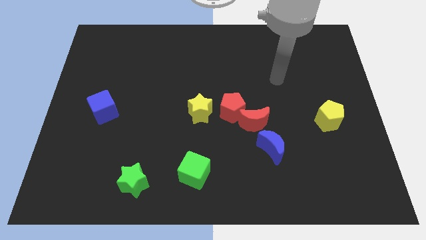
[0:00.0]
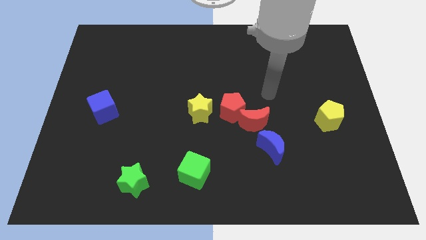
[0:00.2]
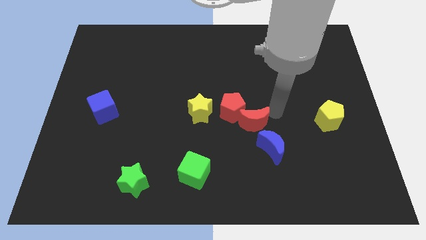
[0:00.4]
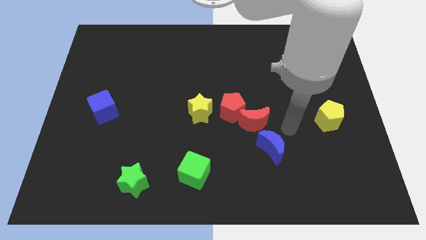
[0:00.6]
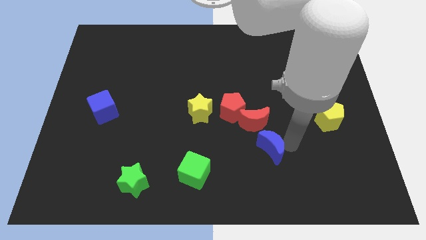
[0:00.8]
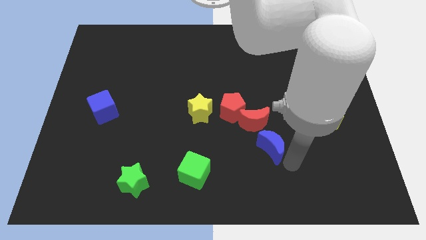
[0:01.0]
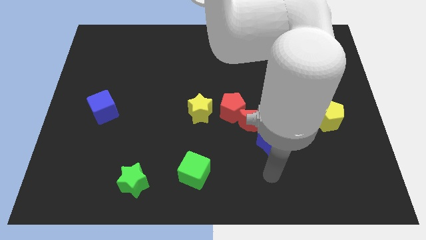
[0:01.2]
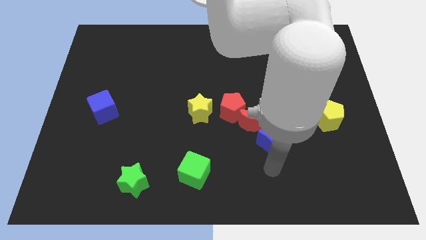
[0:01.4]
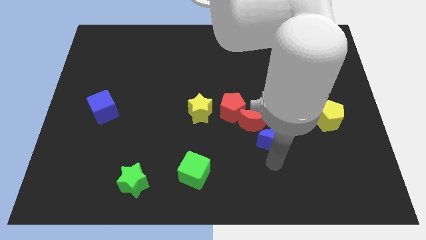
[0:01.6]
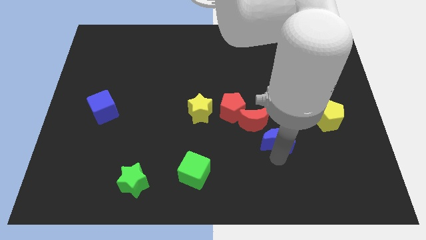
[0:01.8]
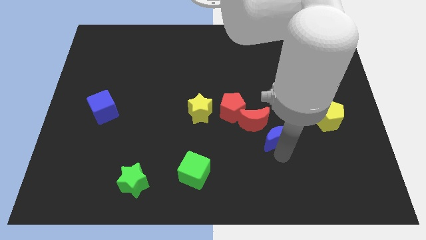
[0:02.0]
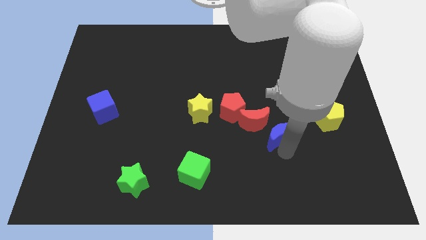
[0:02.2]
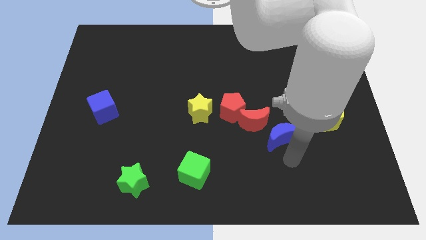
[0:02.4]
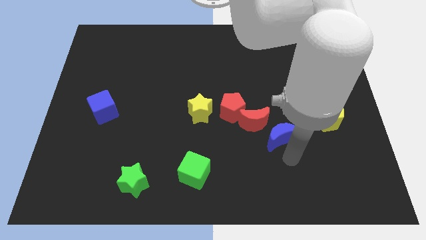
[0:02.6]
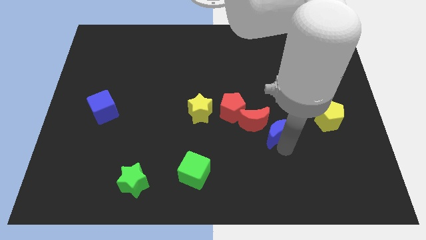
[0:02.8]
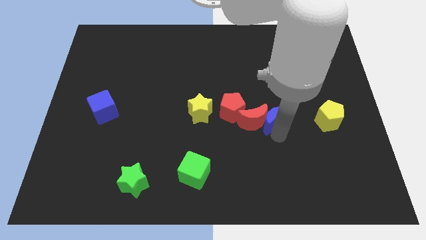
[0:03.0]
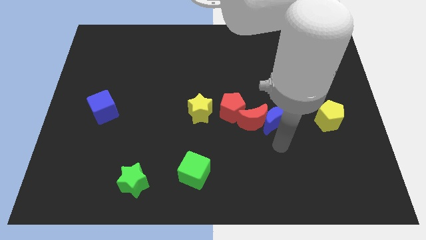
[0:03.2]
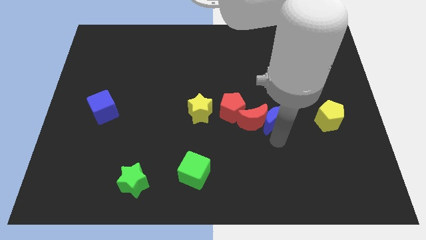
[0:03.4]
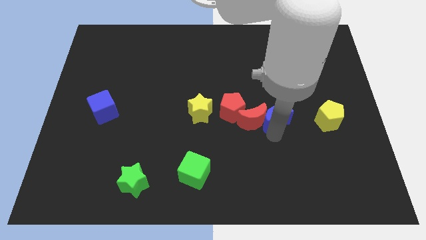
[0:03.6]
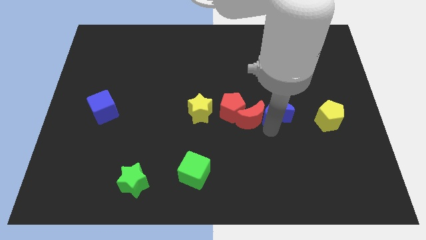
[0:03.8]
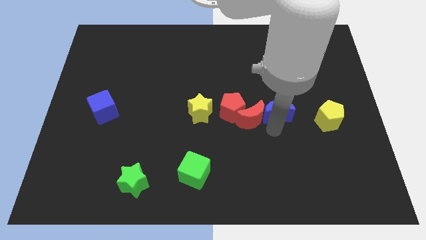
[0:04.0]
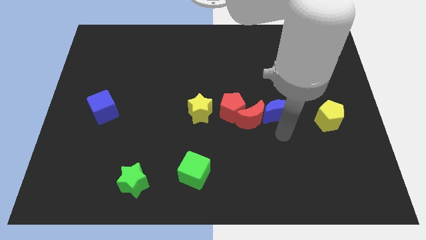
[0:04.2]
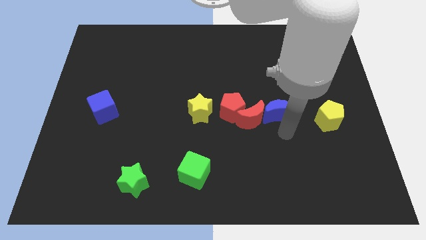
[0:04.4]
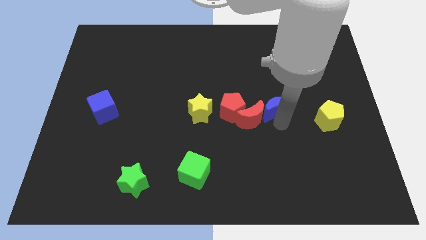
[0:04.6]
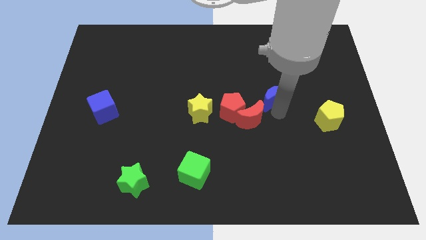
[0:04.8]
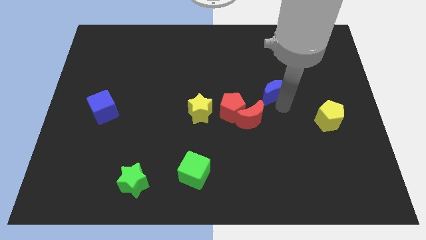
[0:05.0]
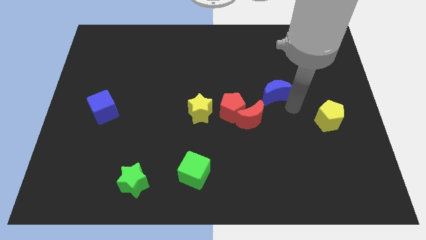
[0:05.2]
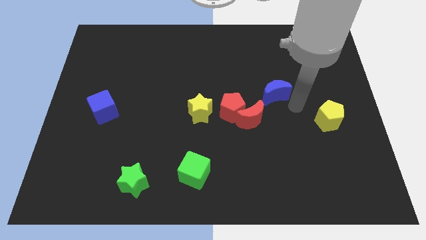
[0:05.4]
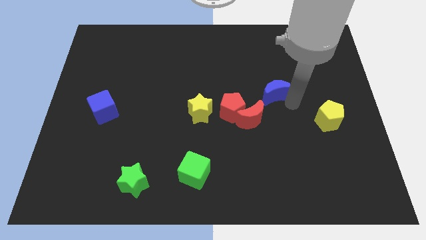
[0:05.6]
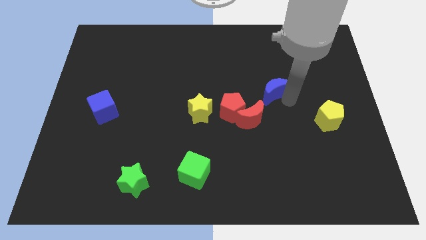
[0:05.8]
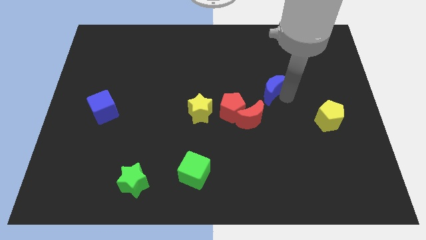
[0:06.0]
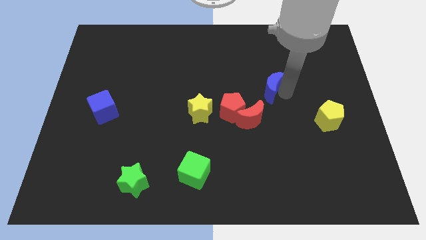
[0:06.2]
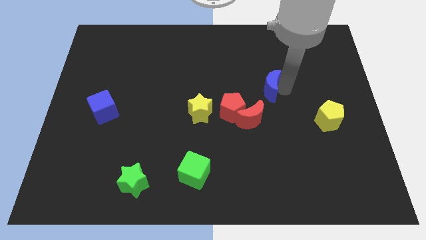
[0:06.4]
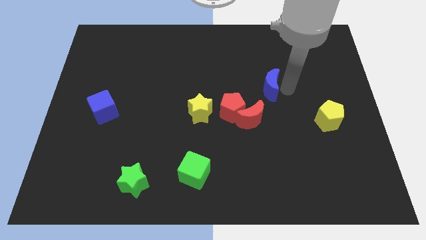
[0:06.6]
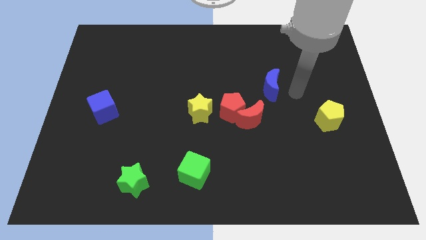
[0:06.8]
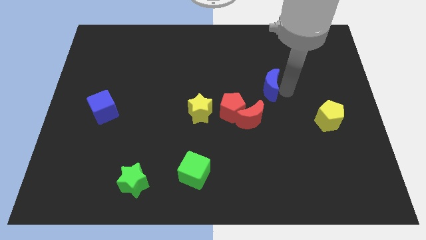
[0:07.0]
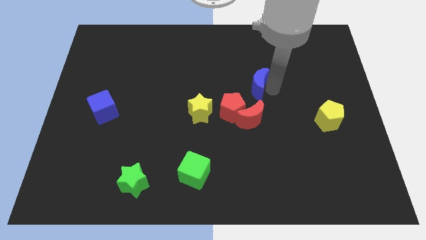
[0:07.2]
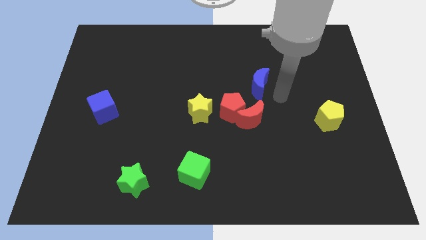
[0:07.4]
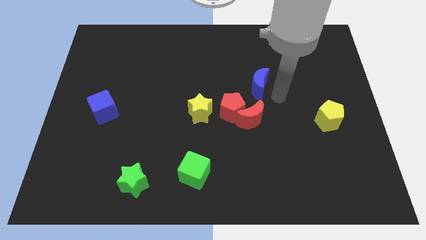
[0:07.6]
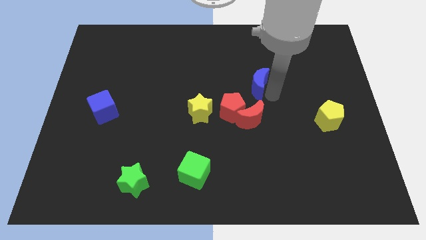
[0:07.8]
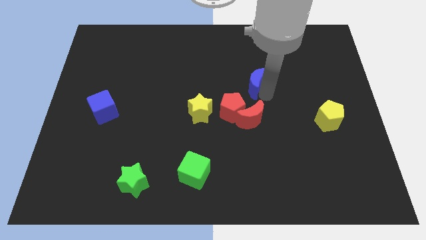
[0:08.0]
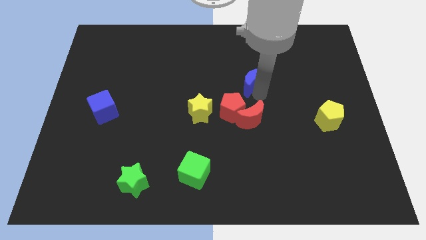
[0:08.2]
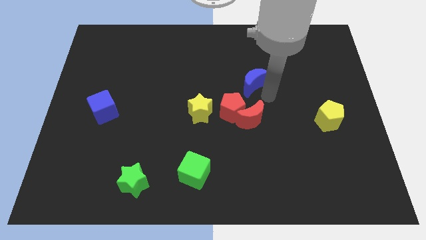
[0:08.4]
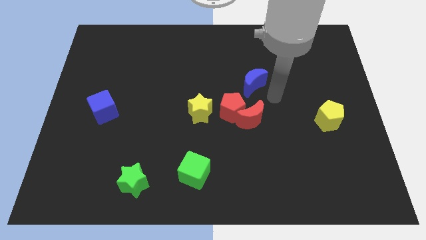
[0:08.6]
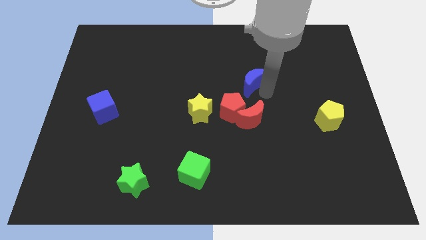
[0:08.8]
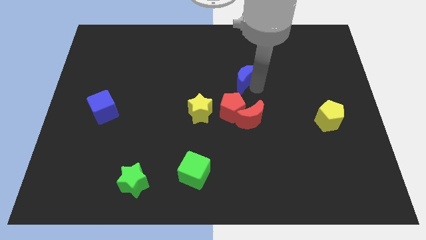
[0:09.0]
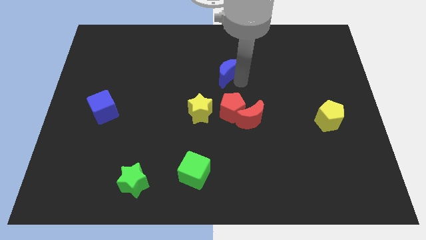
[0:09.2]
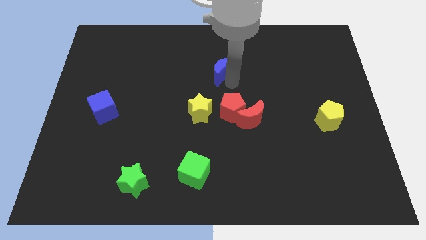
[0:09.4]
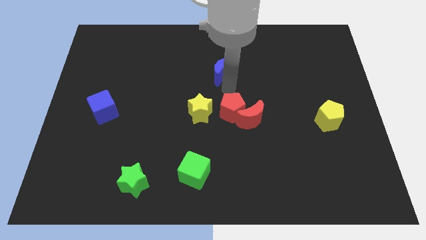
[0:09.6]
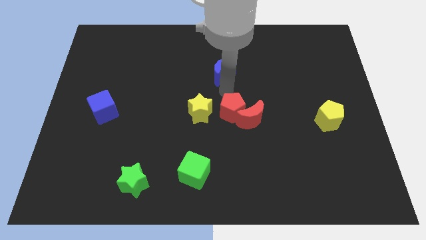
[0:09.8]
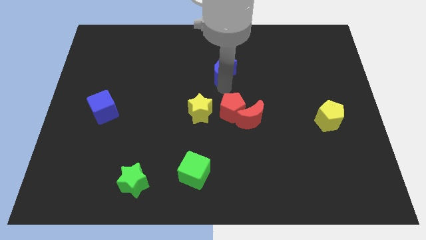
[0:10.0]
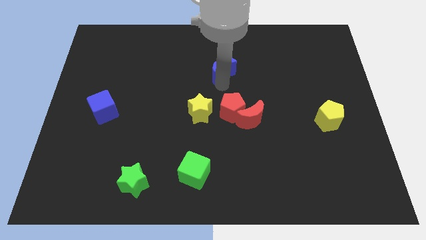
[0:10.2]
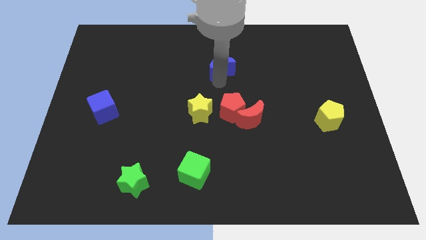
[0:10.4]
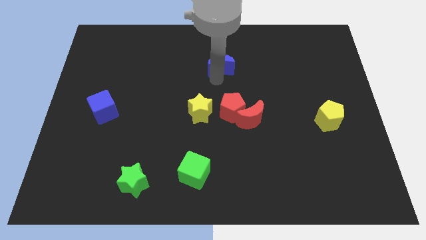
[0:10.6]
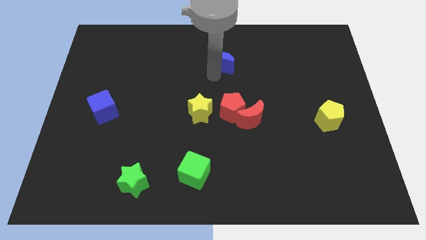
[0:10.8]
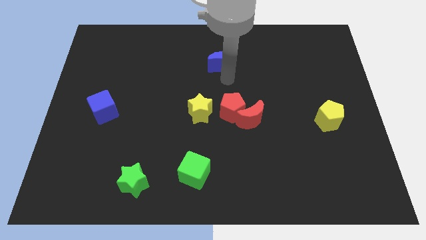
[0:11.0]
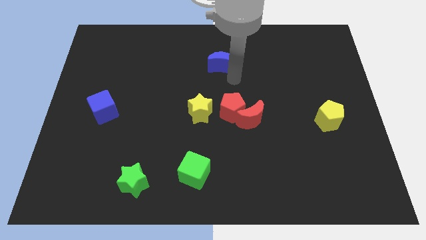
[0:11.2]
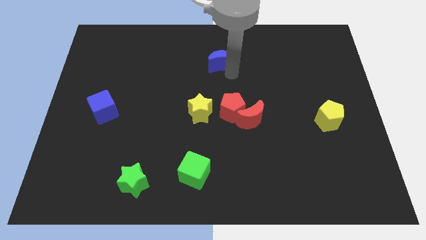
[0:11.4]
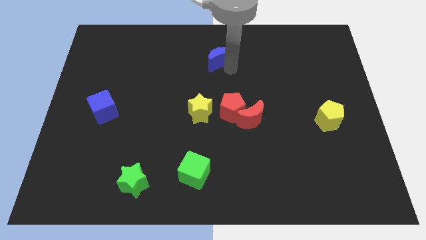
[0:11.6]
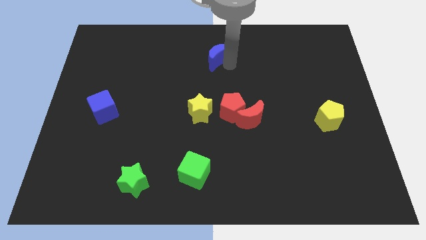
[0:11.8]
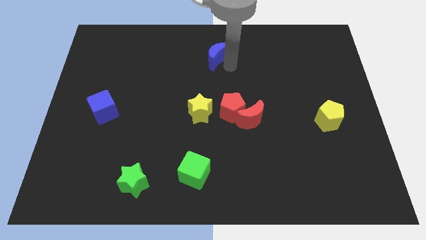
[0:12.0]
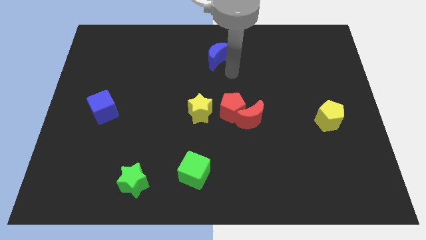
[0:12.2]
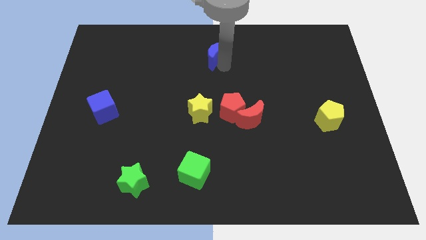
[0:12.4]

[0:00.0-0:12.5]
put the blue moon to the top side
